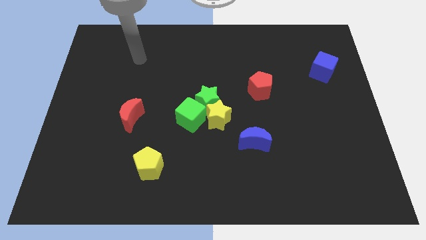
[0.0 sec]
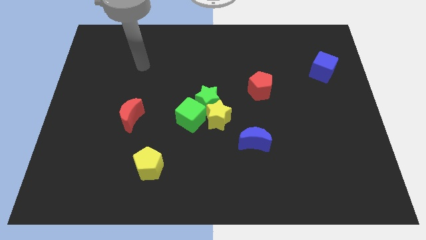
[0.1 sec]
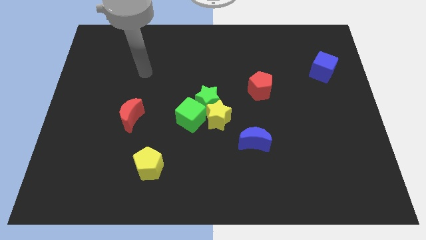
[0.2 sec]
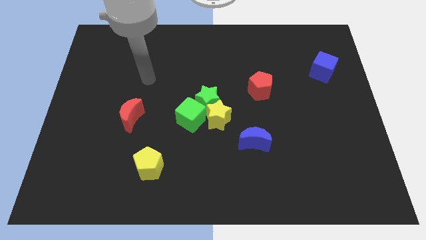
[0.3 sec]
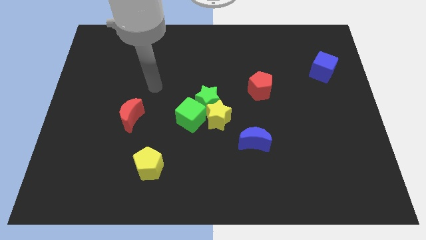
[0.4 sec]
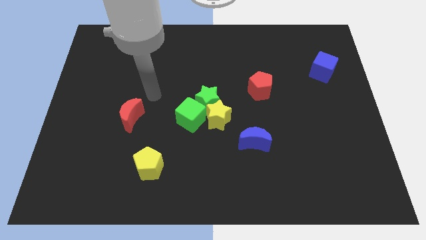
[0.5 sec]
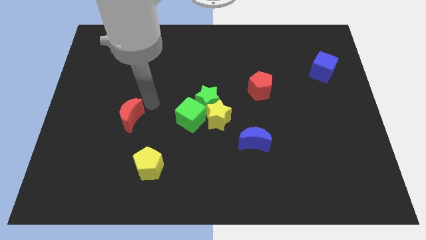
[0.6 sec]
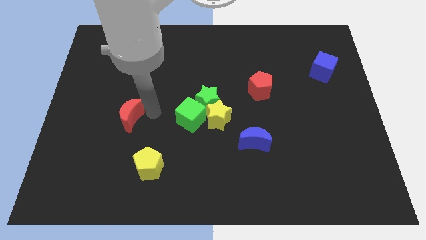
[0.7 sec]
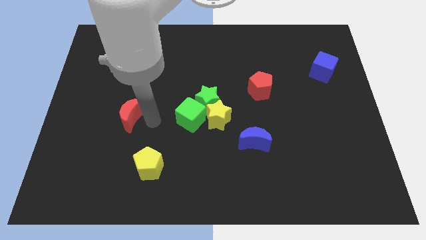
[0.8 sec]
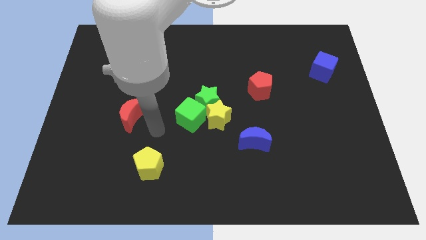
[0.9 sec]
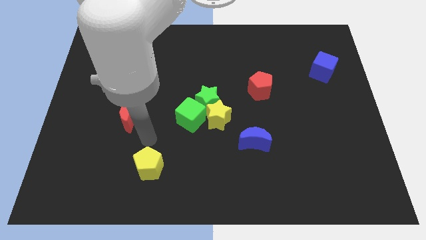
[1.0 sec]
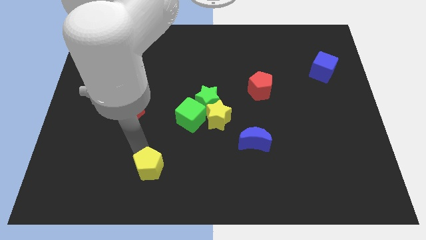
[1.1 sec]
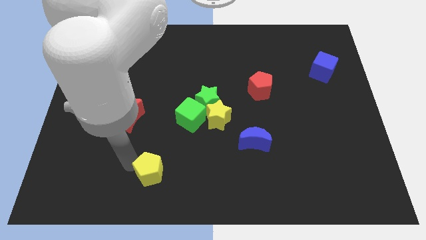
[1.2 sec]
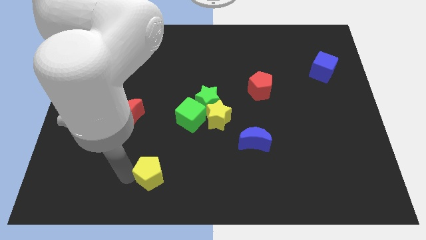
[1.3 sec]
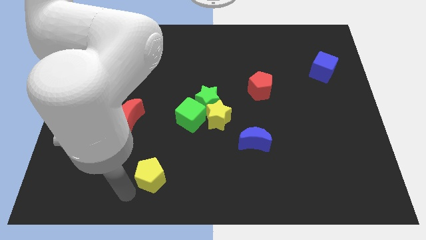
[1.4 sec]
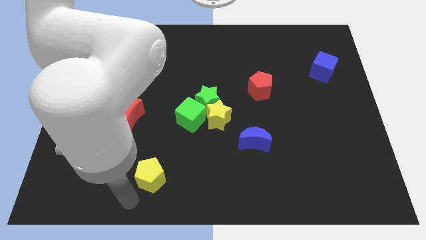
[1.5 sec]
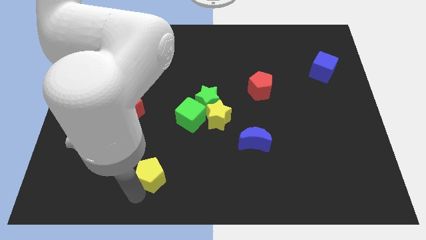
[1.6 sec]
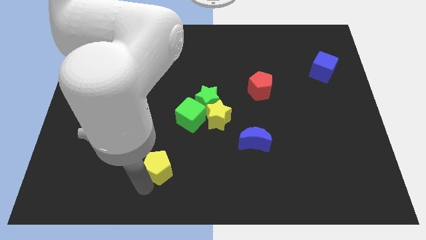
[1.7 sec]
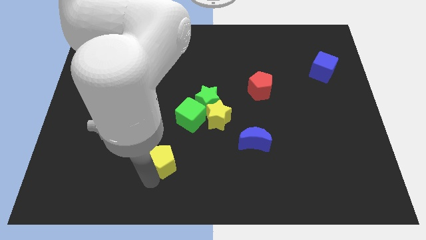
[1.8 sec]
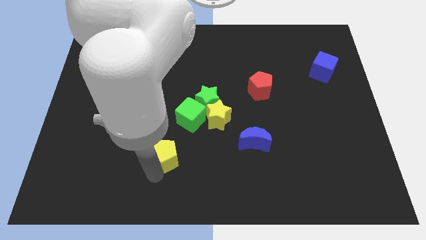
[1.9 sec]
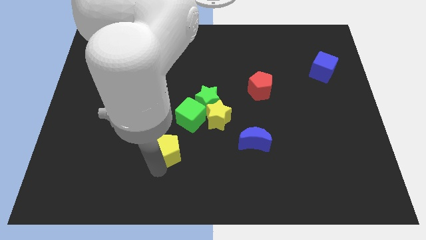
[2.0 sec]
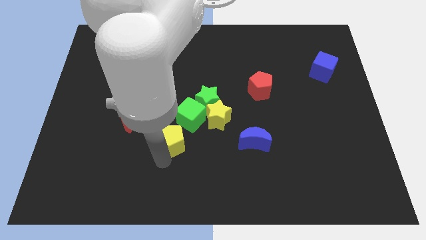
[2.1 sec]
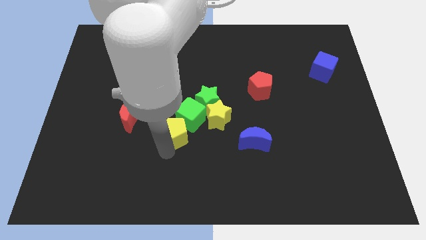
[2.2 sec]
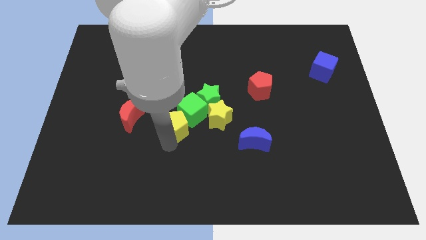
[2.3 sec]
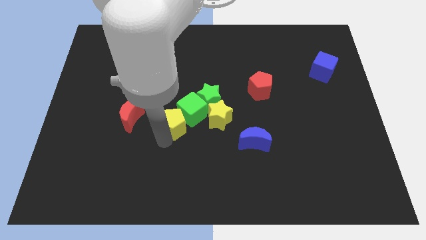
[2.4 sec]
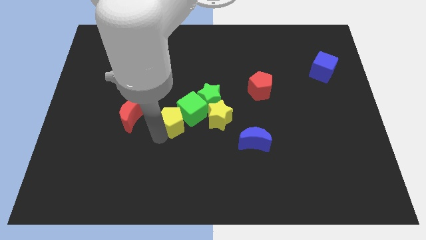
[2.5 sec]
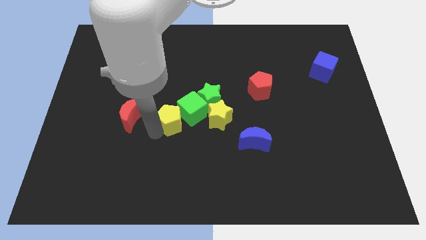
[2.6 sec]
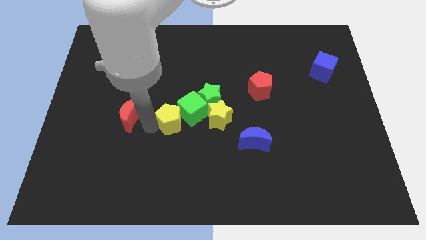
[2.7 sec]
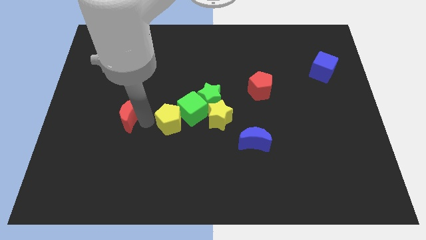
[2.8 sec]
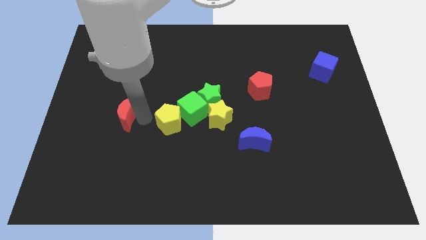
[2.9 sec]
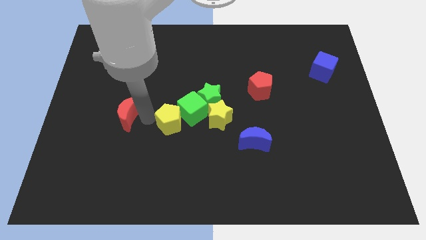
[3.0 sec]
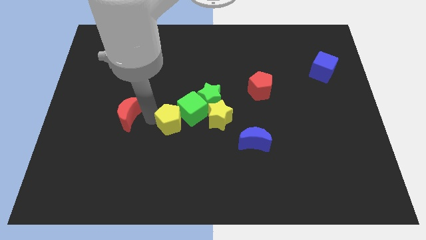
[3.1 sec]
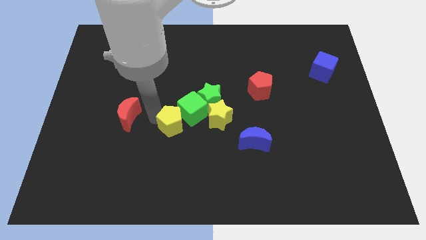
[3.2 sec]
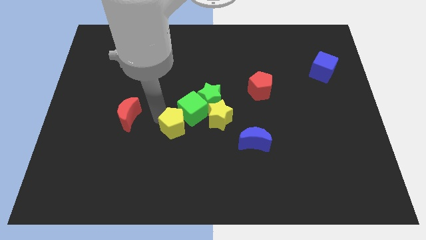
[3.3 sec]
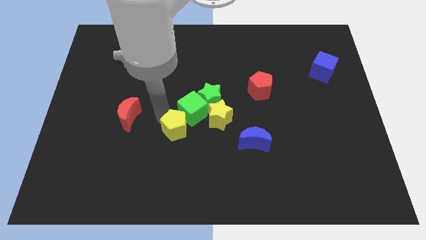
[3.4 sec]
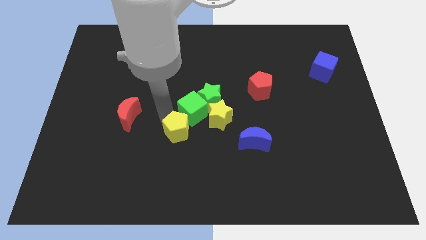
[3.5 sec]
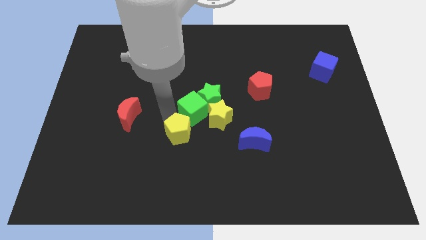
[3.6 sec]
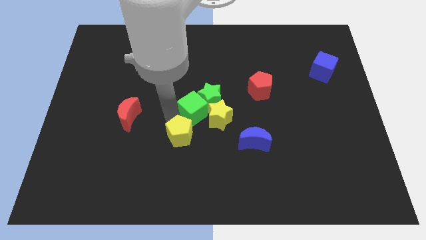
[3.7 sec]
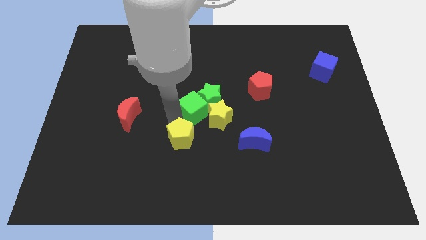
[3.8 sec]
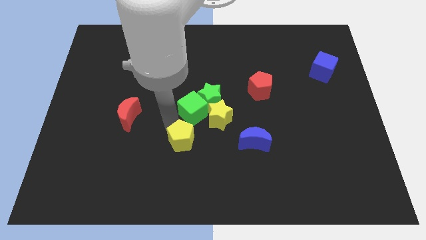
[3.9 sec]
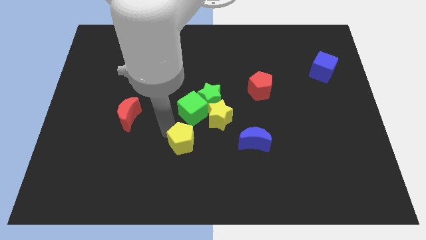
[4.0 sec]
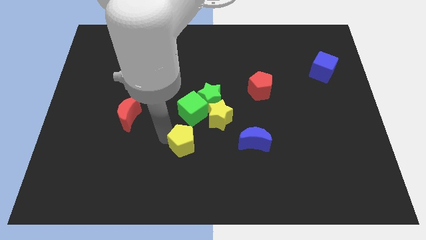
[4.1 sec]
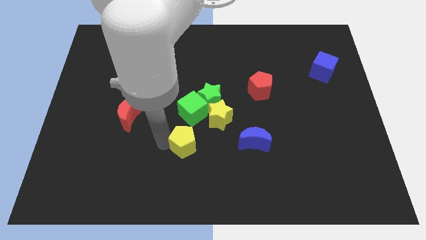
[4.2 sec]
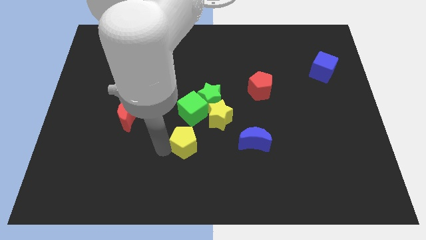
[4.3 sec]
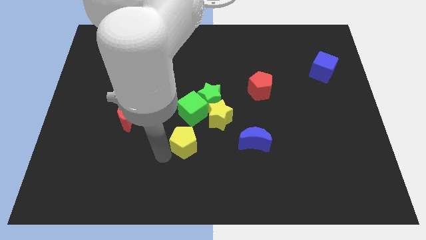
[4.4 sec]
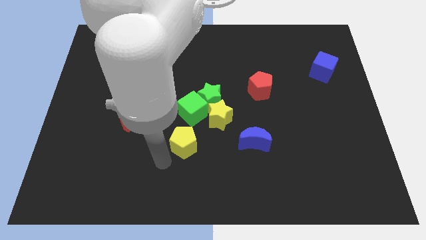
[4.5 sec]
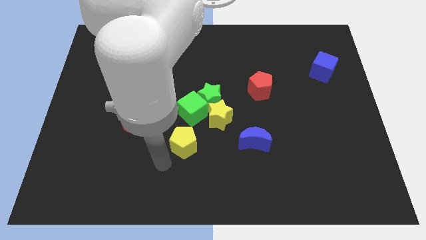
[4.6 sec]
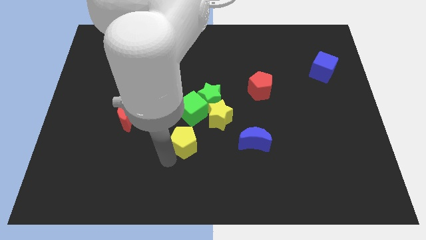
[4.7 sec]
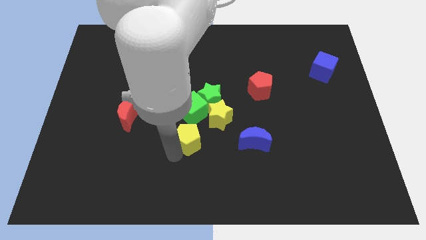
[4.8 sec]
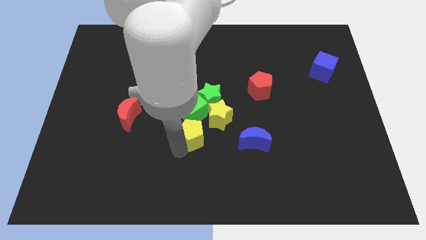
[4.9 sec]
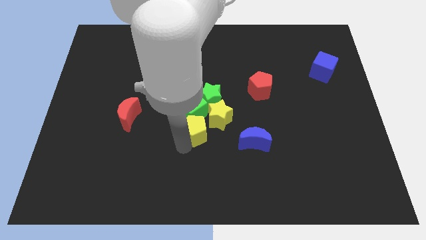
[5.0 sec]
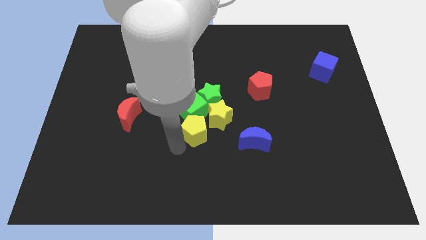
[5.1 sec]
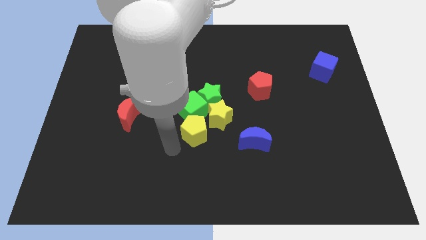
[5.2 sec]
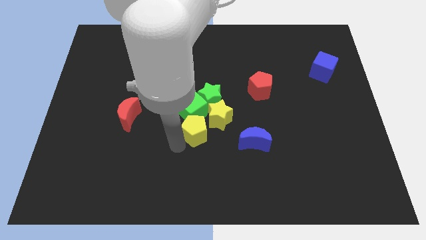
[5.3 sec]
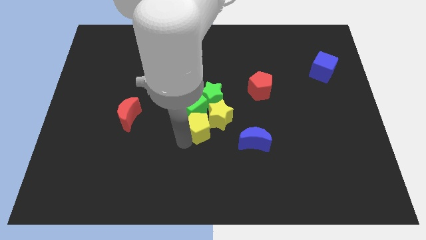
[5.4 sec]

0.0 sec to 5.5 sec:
put the yellow pentagon close to the yellow star
